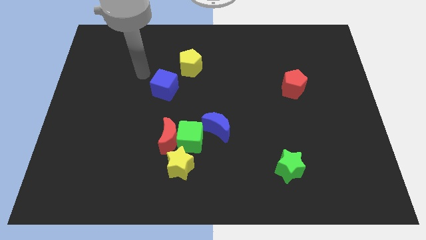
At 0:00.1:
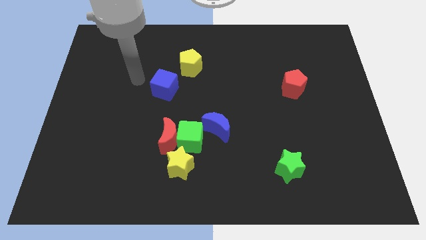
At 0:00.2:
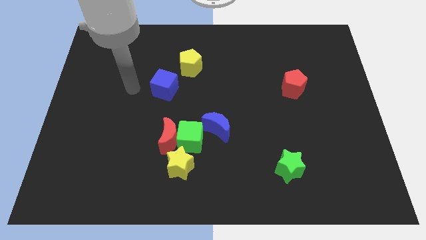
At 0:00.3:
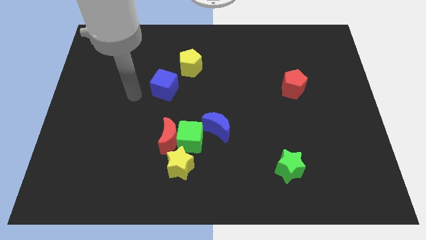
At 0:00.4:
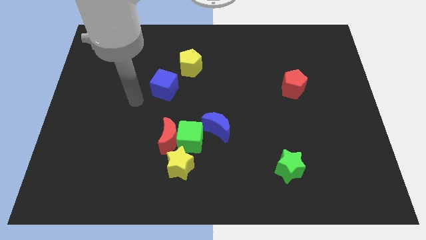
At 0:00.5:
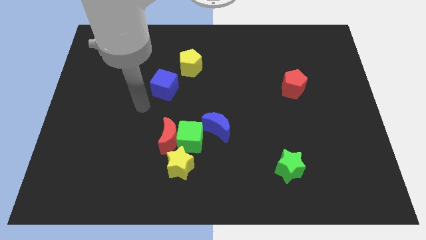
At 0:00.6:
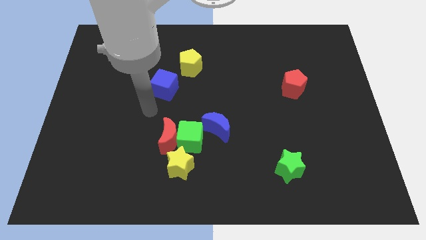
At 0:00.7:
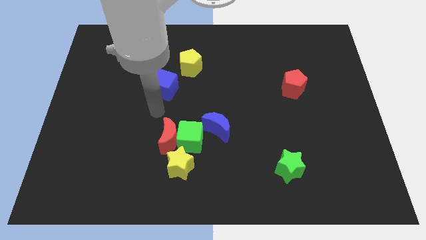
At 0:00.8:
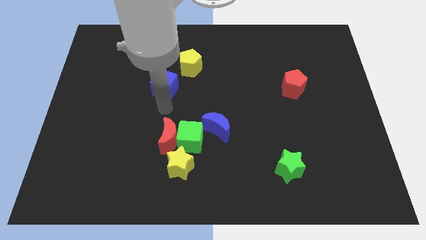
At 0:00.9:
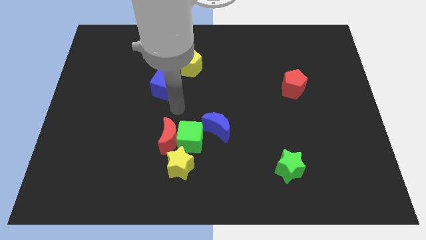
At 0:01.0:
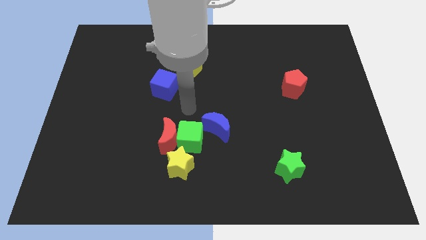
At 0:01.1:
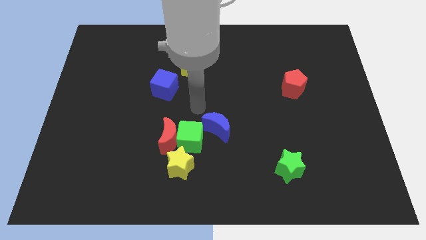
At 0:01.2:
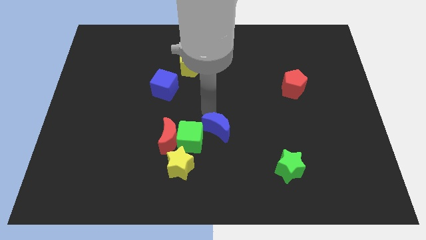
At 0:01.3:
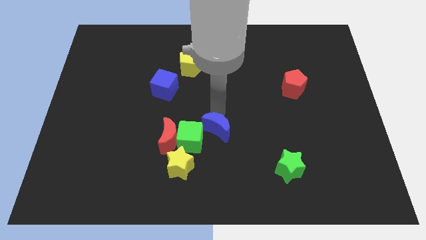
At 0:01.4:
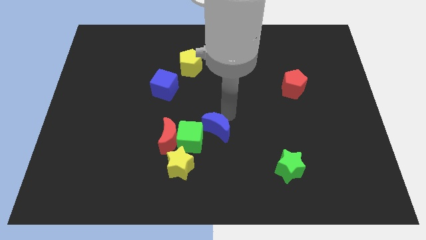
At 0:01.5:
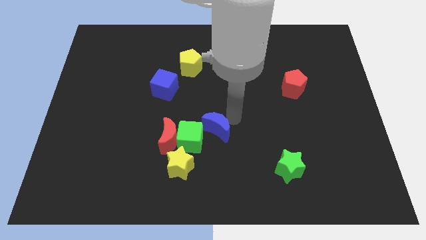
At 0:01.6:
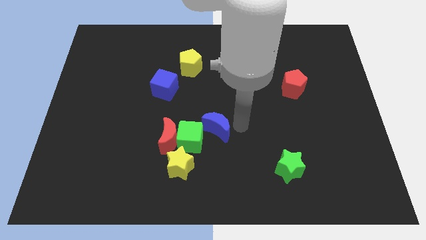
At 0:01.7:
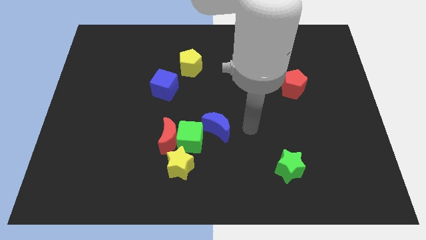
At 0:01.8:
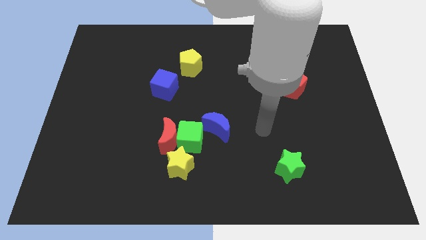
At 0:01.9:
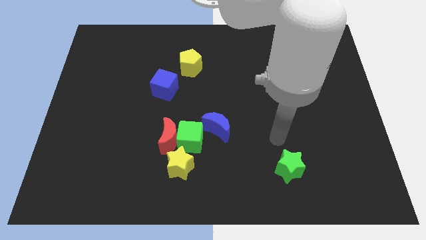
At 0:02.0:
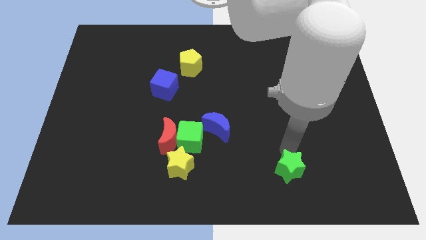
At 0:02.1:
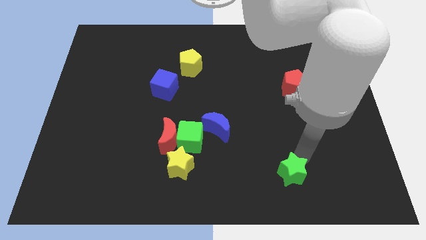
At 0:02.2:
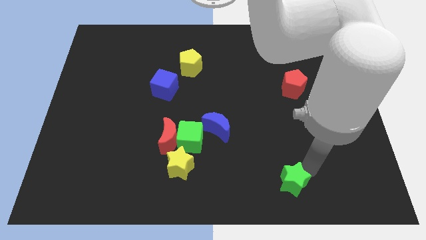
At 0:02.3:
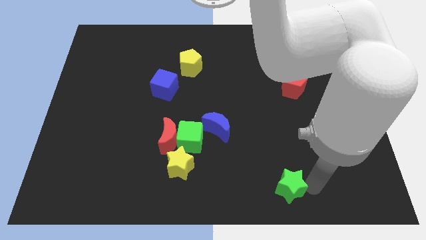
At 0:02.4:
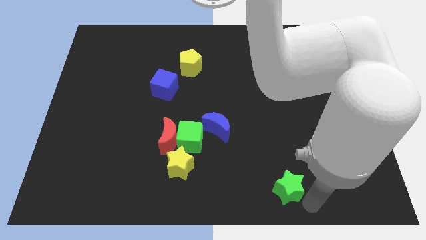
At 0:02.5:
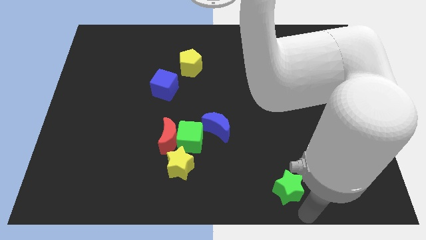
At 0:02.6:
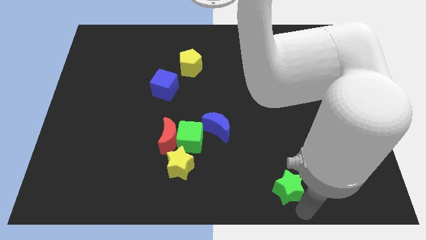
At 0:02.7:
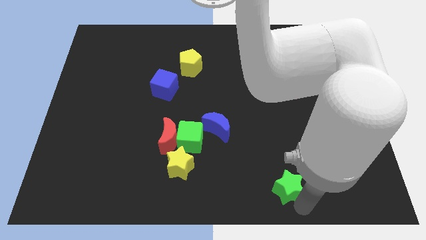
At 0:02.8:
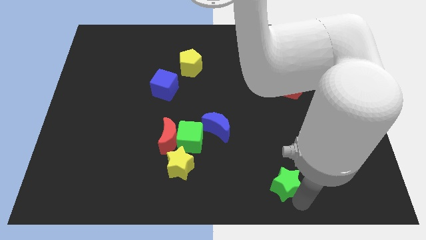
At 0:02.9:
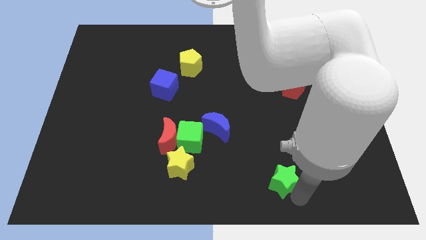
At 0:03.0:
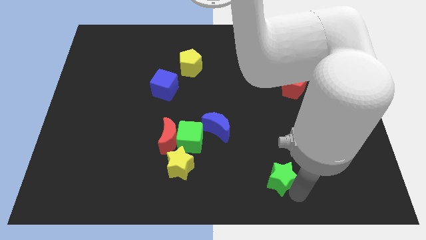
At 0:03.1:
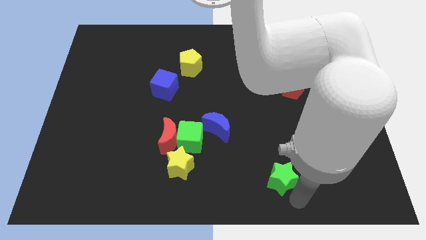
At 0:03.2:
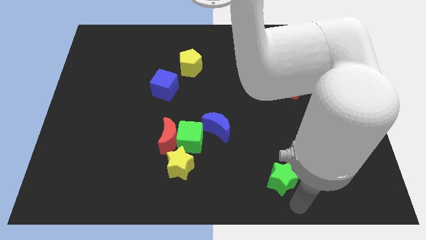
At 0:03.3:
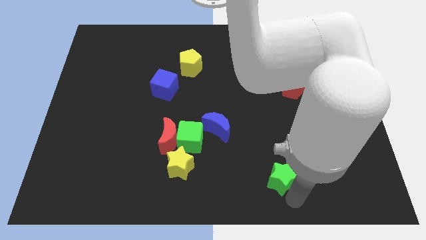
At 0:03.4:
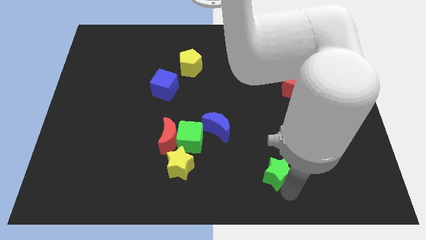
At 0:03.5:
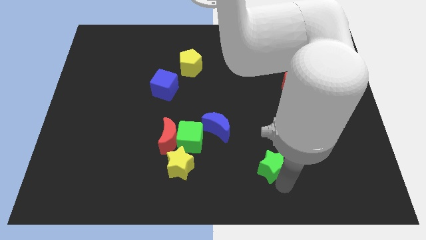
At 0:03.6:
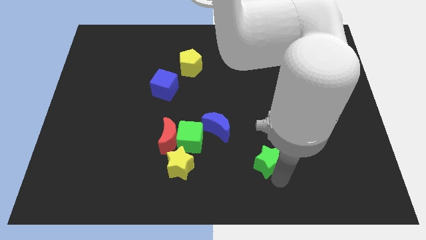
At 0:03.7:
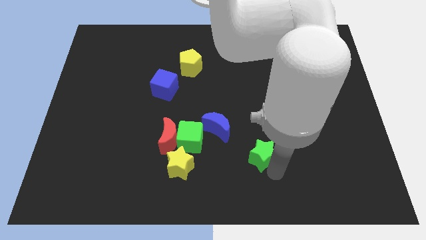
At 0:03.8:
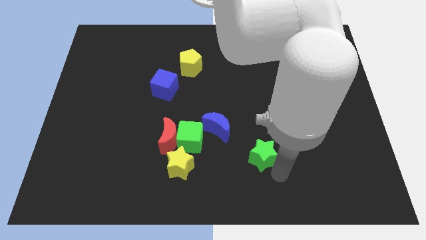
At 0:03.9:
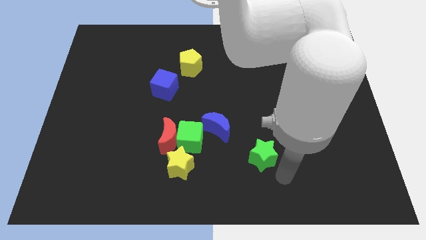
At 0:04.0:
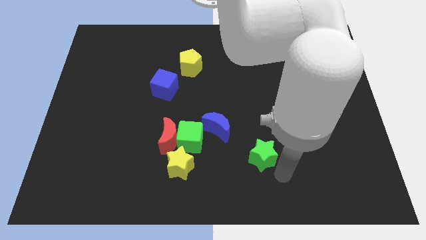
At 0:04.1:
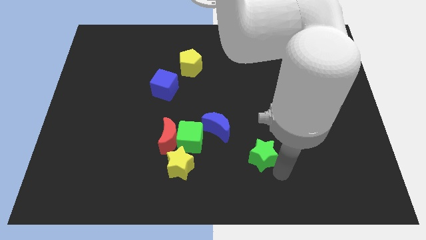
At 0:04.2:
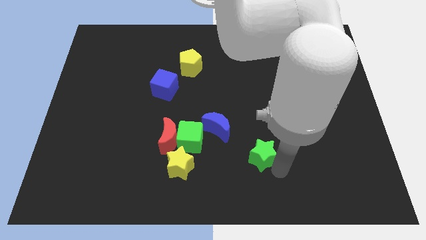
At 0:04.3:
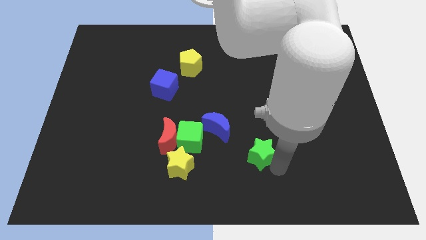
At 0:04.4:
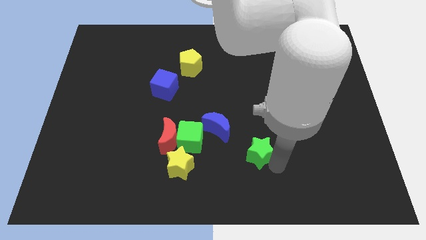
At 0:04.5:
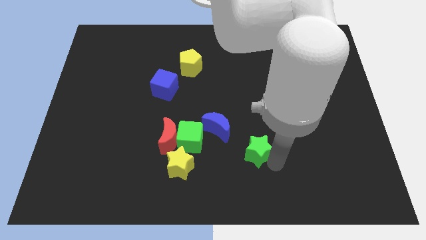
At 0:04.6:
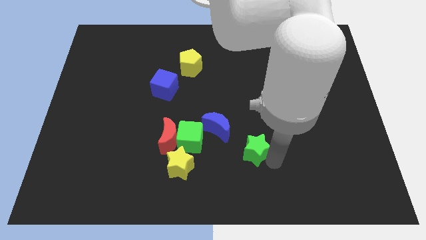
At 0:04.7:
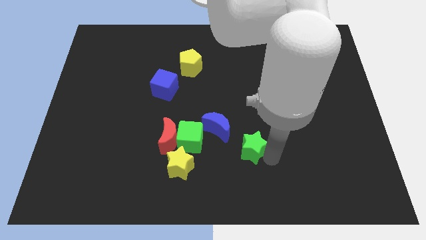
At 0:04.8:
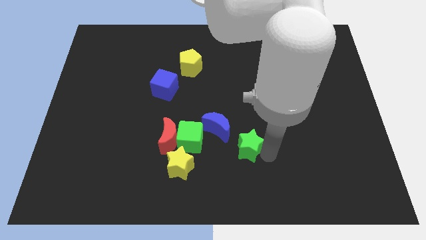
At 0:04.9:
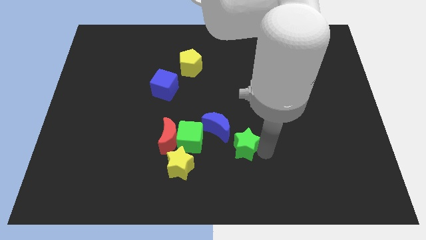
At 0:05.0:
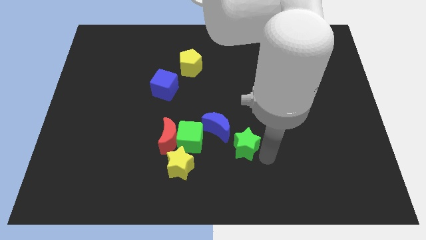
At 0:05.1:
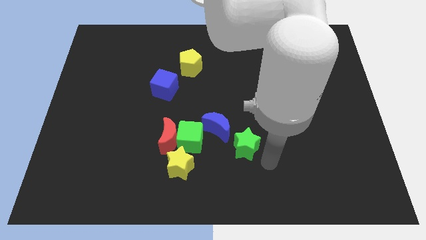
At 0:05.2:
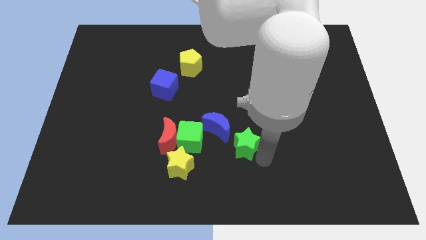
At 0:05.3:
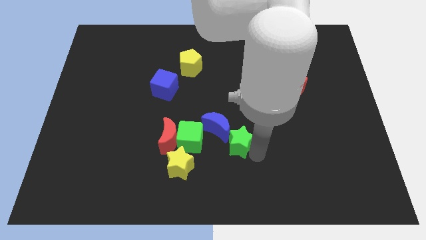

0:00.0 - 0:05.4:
slide the green star next to the blue moon

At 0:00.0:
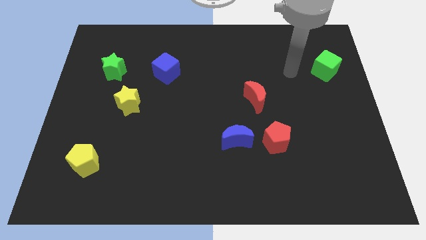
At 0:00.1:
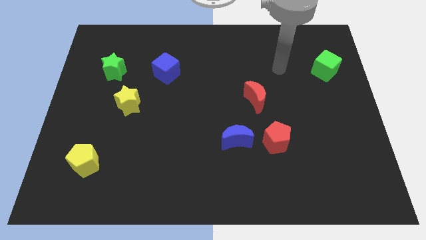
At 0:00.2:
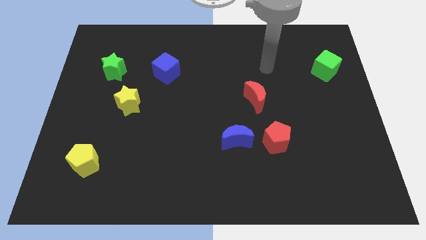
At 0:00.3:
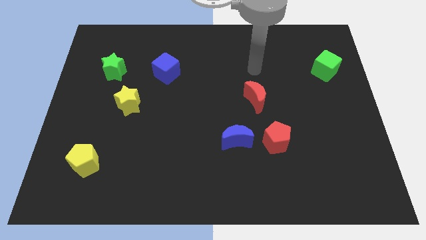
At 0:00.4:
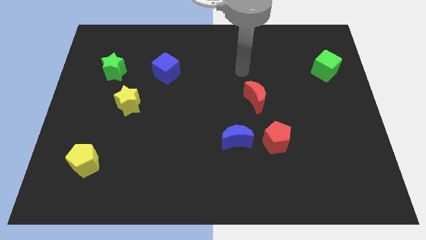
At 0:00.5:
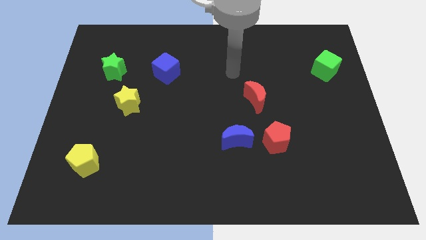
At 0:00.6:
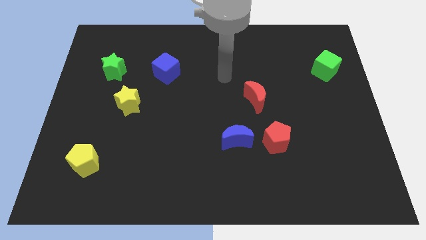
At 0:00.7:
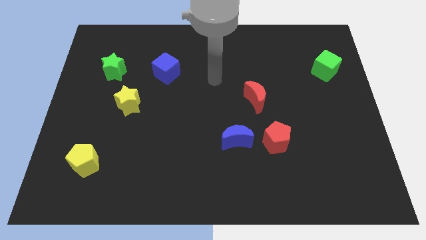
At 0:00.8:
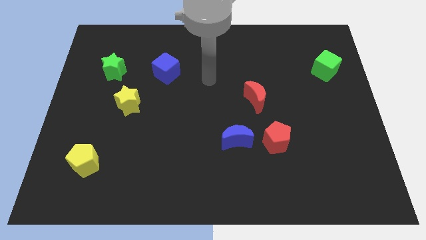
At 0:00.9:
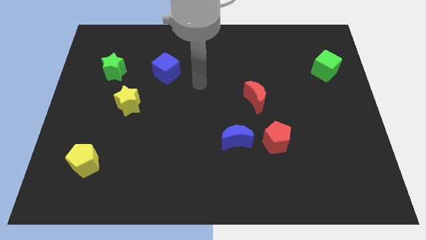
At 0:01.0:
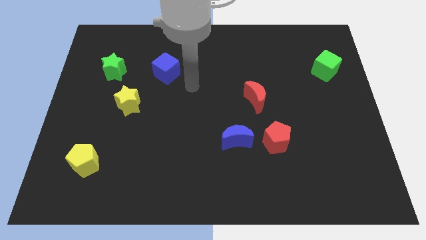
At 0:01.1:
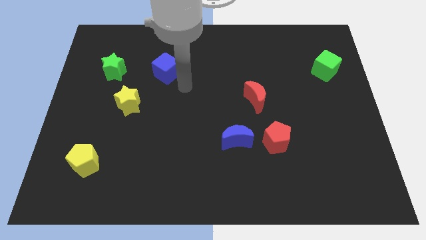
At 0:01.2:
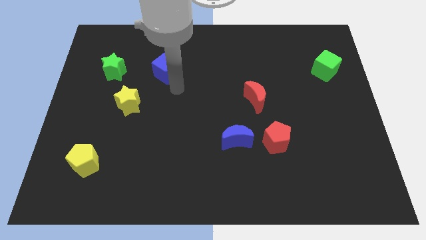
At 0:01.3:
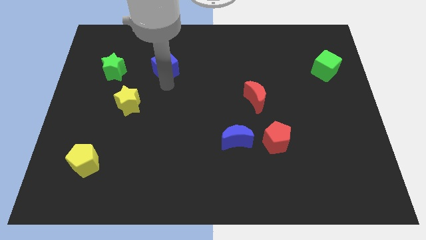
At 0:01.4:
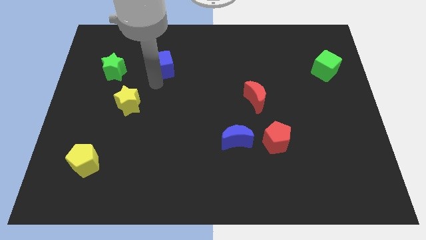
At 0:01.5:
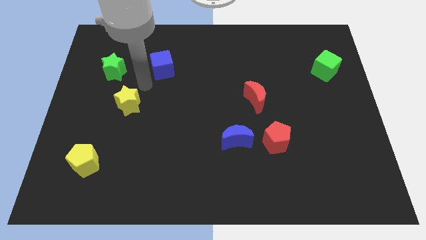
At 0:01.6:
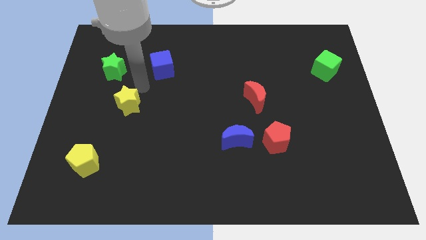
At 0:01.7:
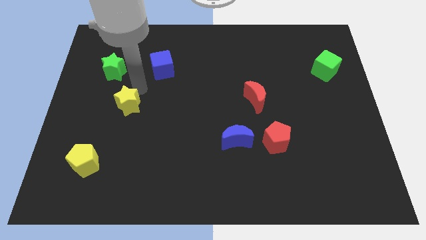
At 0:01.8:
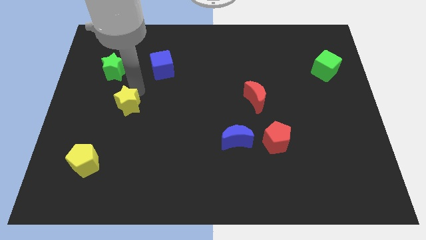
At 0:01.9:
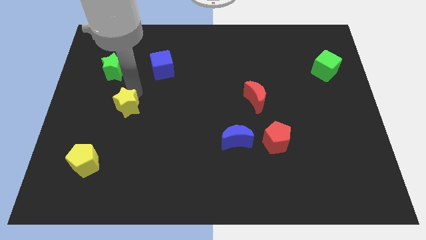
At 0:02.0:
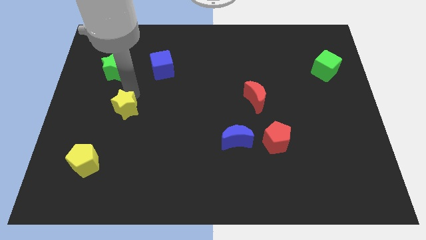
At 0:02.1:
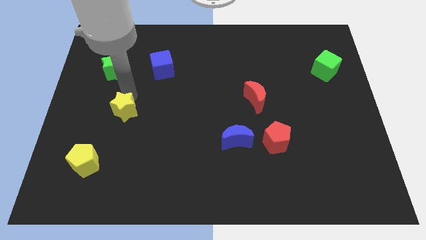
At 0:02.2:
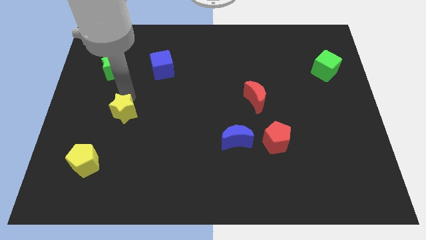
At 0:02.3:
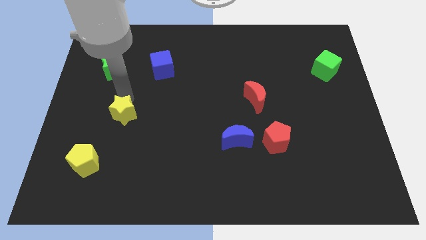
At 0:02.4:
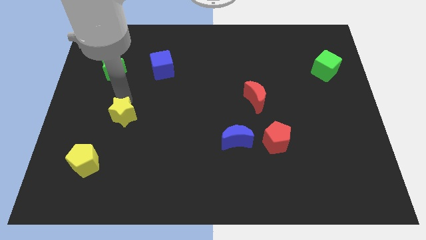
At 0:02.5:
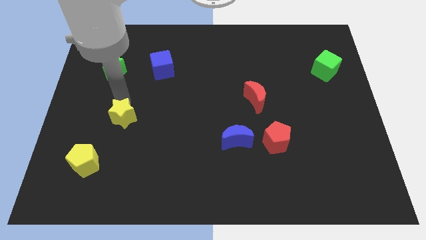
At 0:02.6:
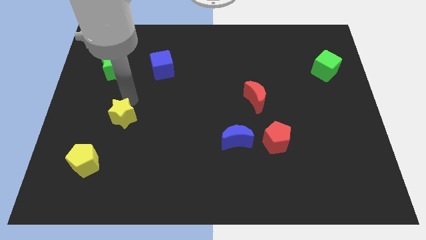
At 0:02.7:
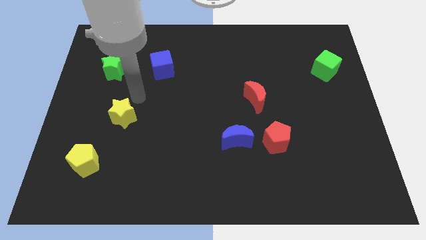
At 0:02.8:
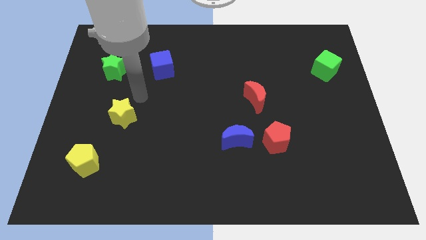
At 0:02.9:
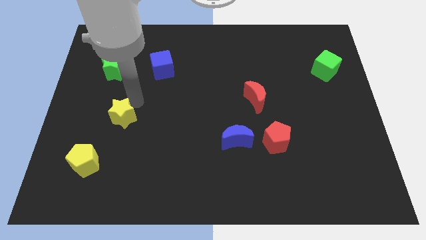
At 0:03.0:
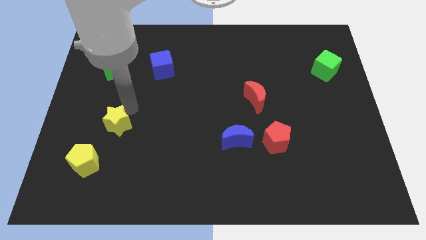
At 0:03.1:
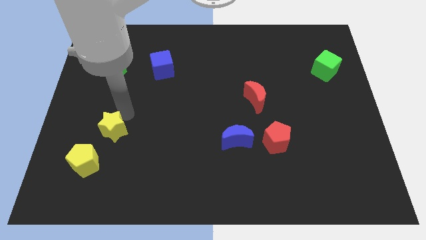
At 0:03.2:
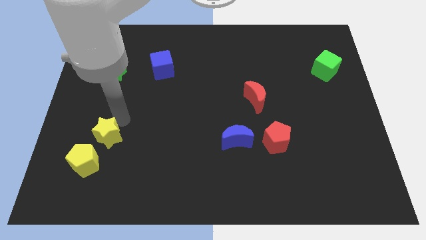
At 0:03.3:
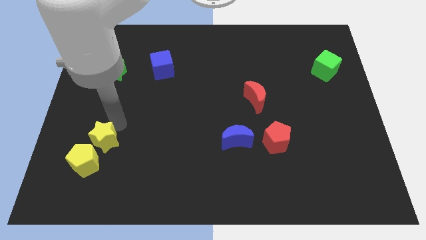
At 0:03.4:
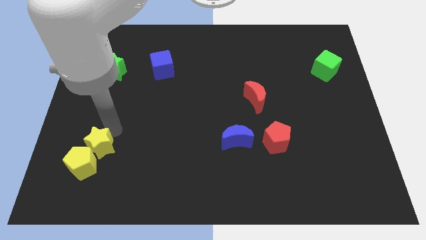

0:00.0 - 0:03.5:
put the yellow star close to the yellow pentagon
